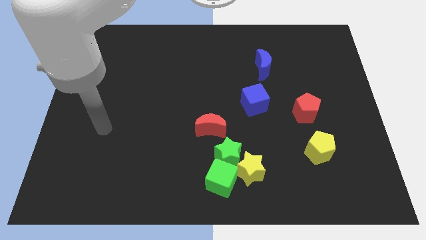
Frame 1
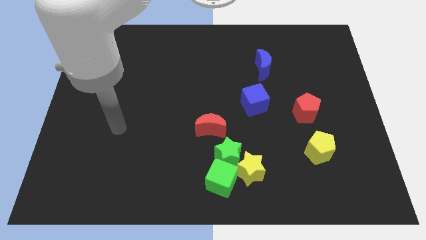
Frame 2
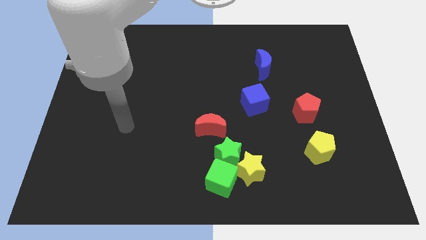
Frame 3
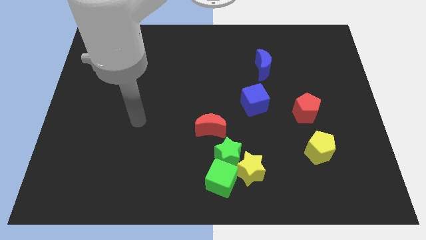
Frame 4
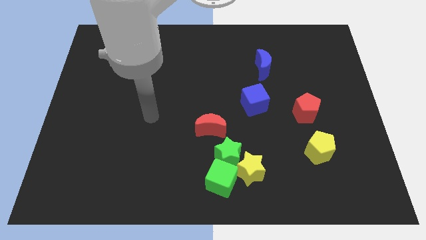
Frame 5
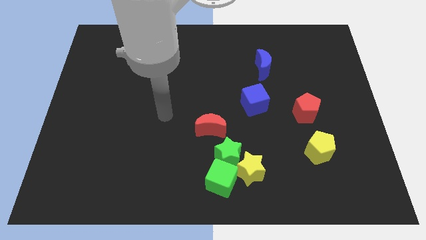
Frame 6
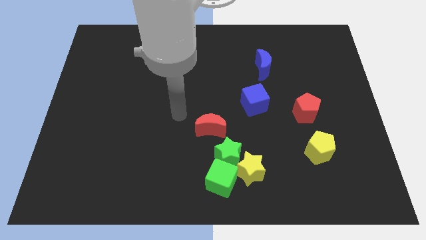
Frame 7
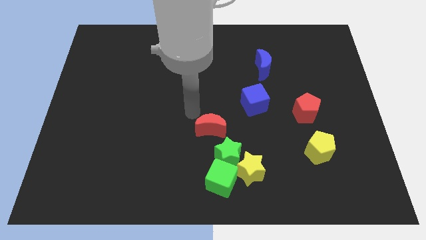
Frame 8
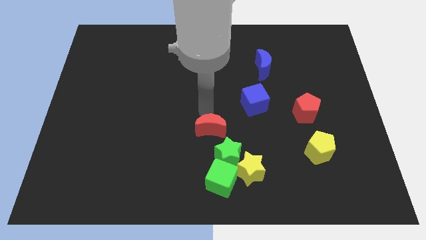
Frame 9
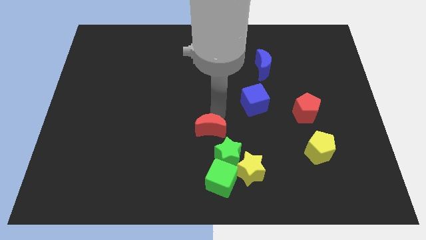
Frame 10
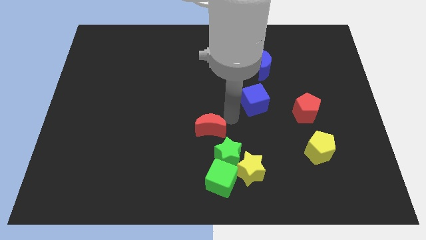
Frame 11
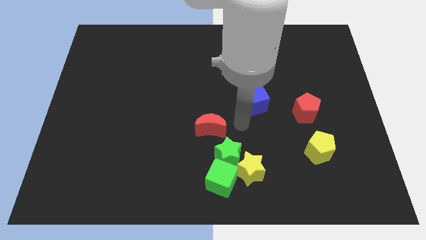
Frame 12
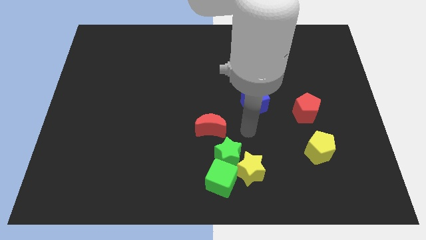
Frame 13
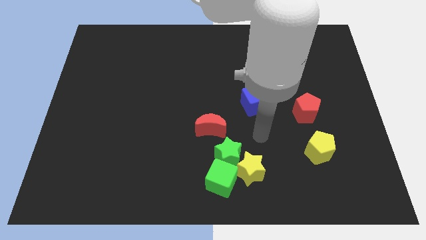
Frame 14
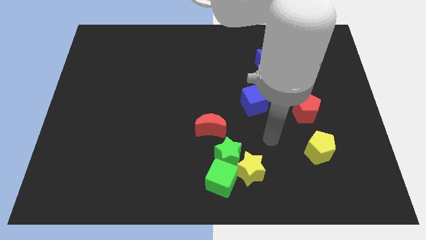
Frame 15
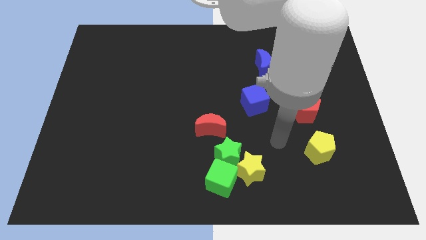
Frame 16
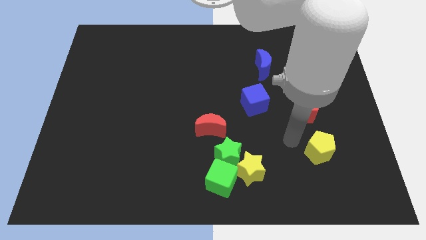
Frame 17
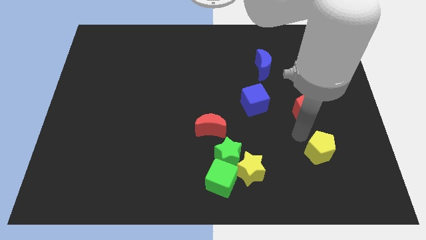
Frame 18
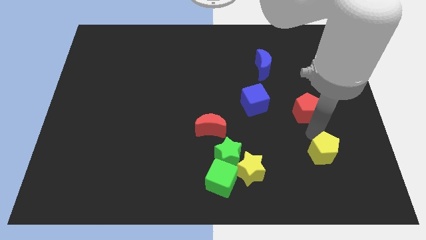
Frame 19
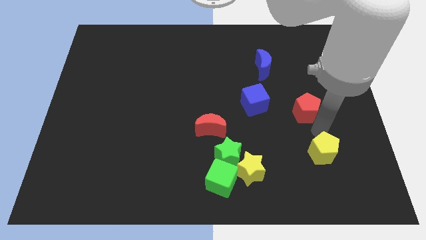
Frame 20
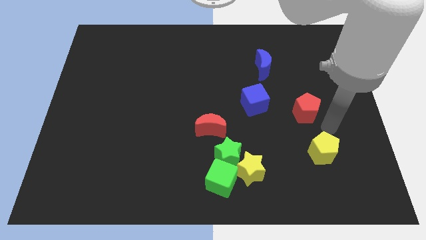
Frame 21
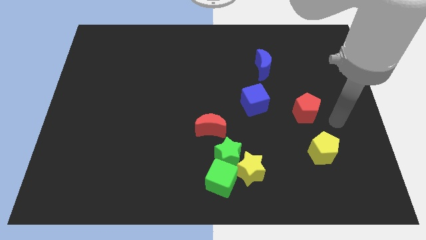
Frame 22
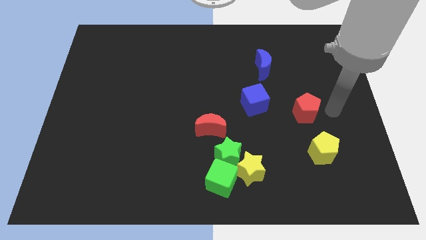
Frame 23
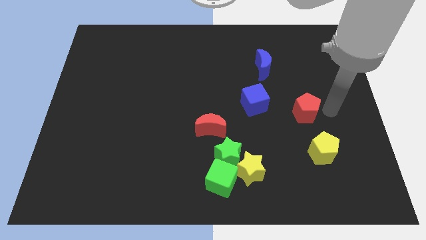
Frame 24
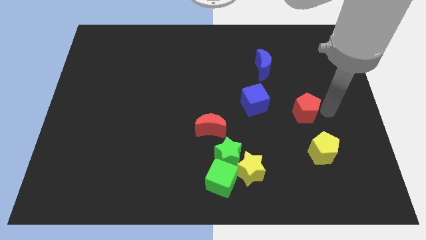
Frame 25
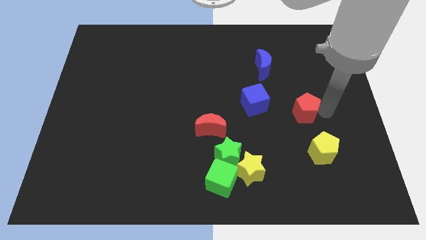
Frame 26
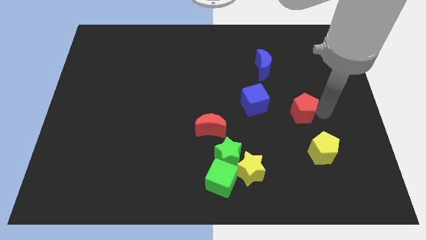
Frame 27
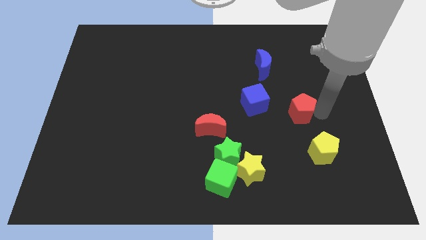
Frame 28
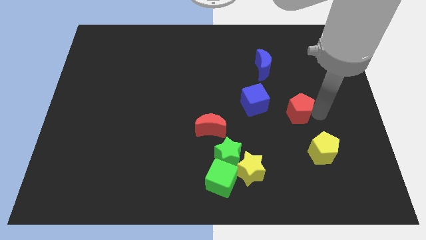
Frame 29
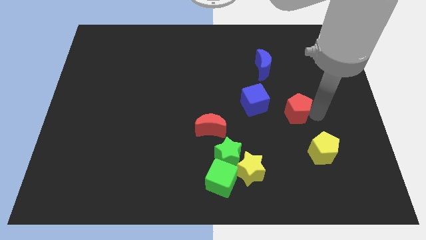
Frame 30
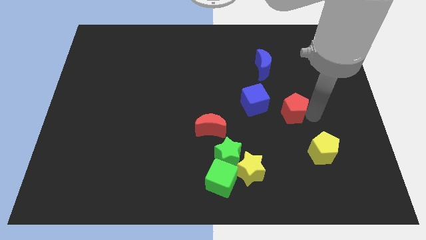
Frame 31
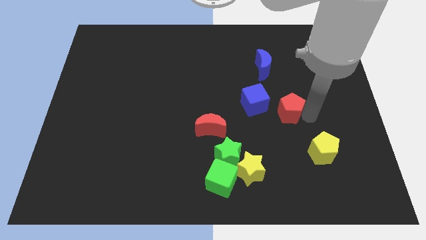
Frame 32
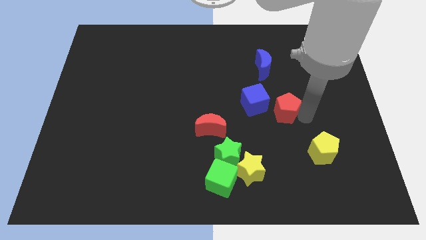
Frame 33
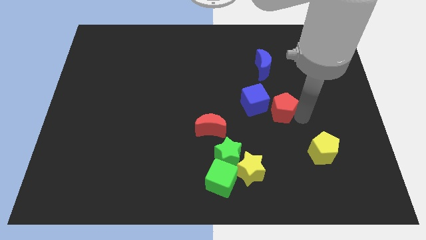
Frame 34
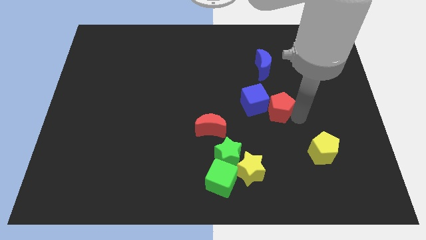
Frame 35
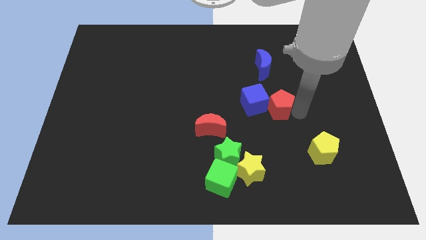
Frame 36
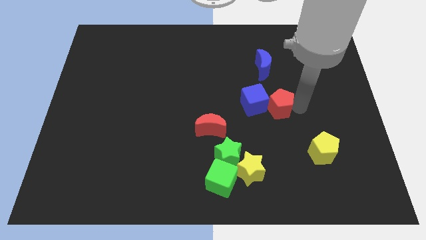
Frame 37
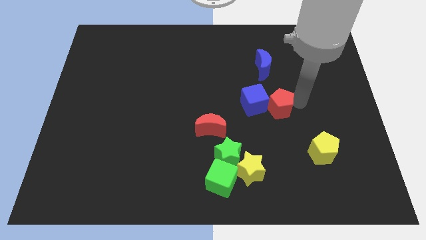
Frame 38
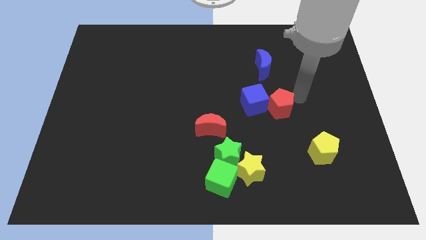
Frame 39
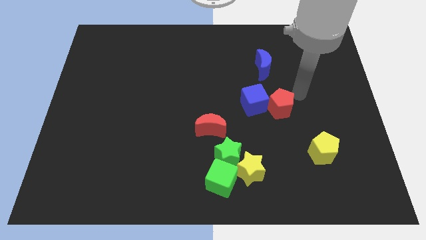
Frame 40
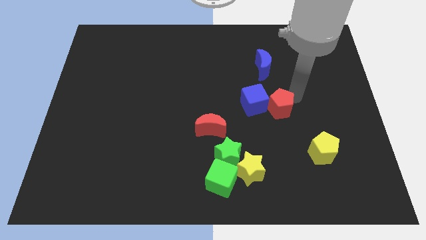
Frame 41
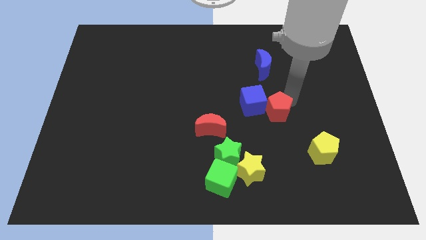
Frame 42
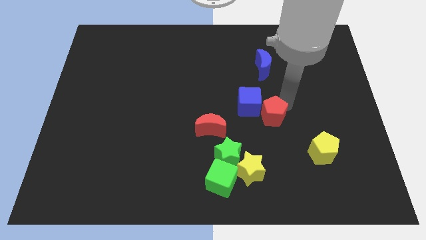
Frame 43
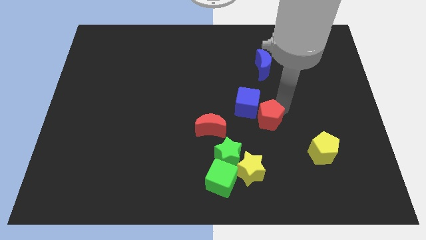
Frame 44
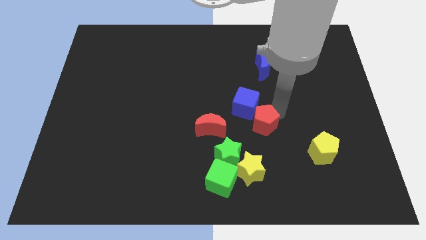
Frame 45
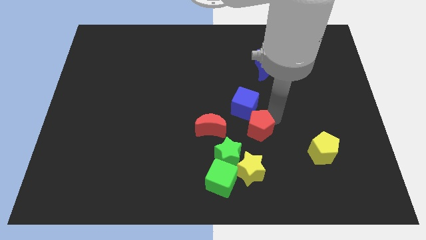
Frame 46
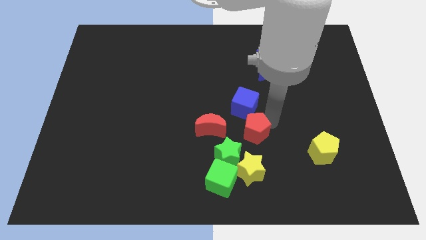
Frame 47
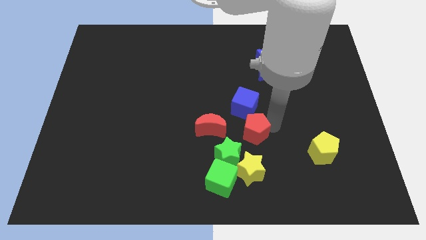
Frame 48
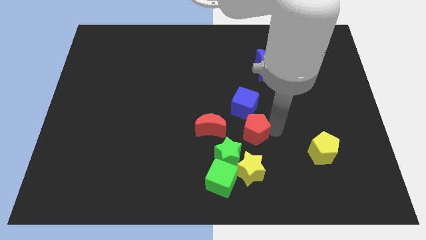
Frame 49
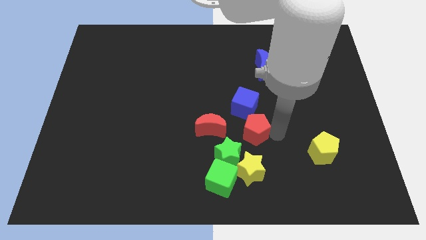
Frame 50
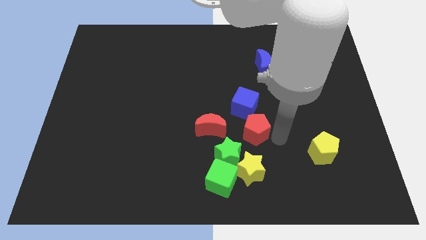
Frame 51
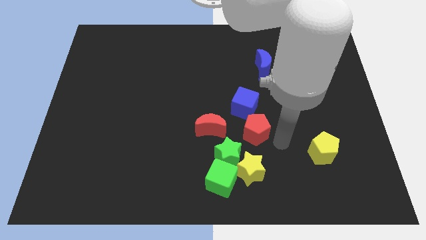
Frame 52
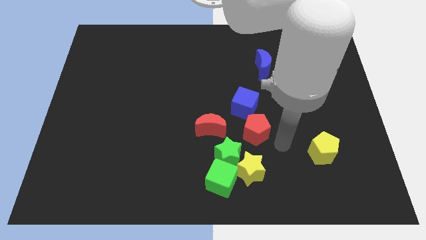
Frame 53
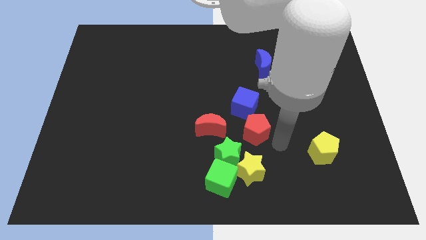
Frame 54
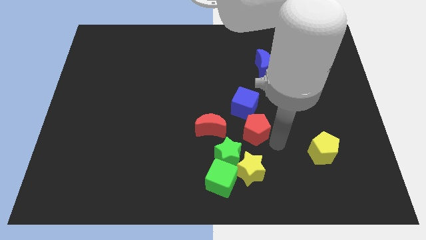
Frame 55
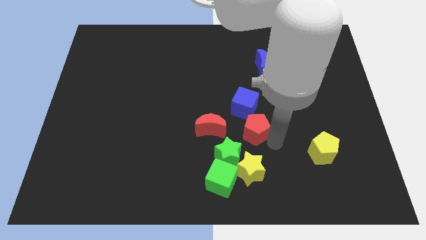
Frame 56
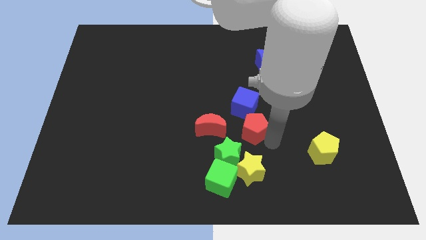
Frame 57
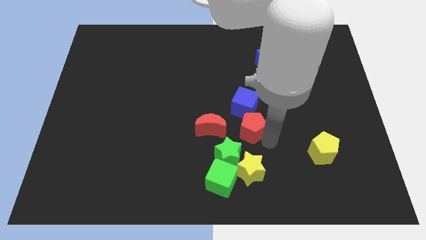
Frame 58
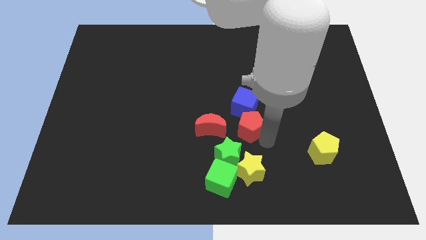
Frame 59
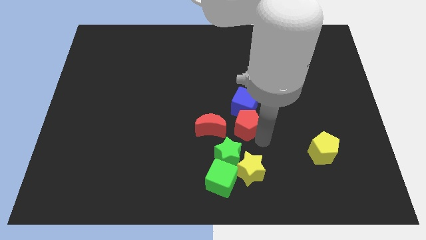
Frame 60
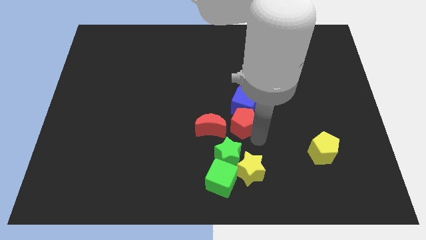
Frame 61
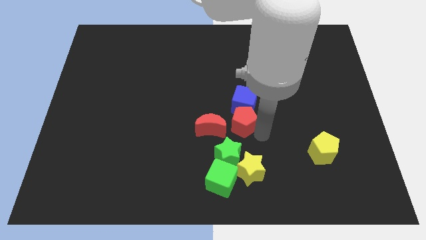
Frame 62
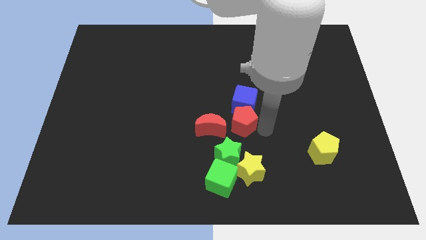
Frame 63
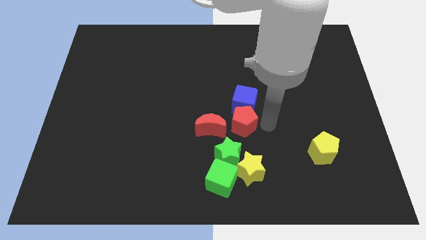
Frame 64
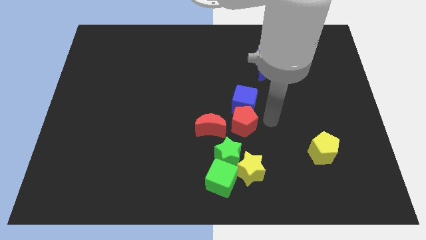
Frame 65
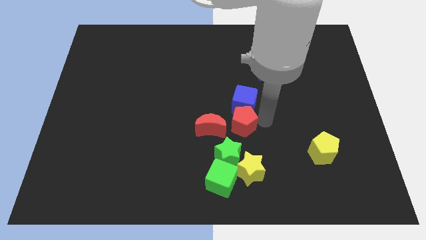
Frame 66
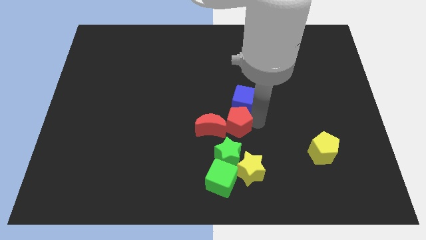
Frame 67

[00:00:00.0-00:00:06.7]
slide the red pentagon close to the red moon

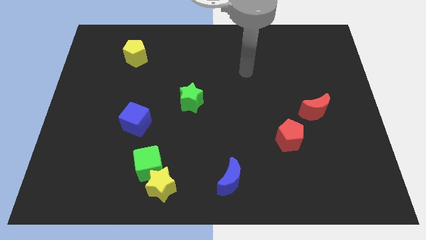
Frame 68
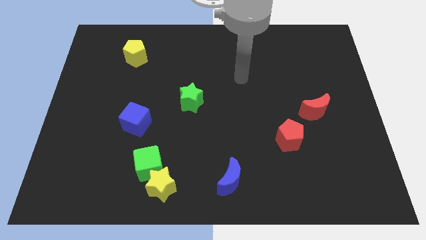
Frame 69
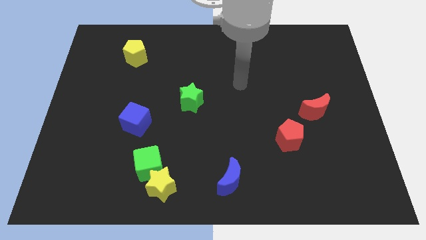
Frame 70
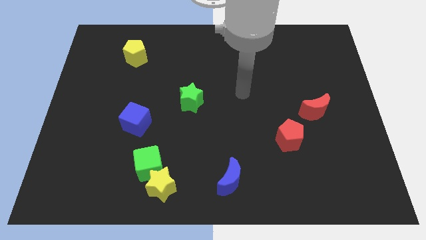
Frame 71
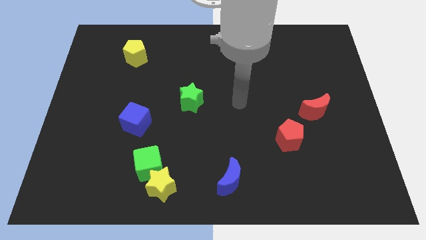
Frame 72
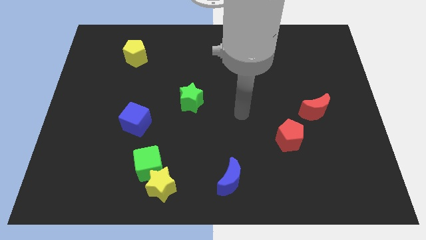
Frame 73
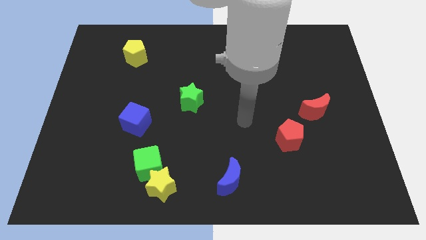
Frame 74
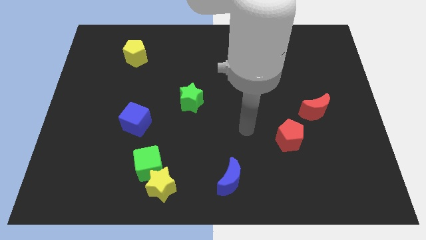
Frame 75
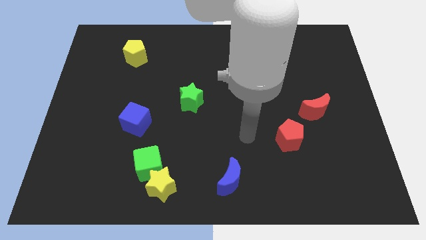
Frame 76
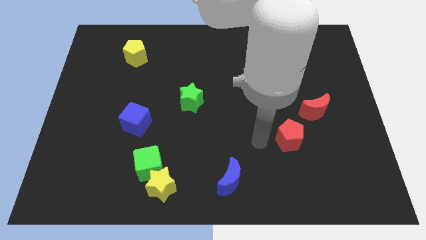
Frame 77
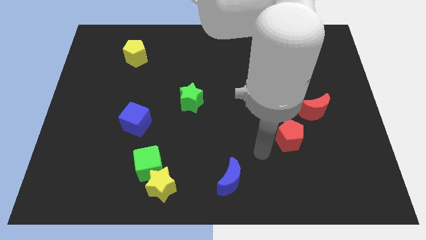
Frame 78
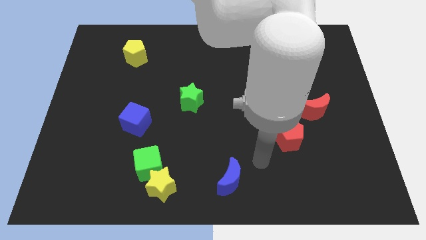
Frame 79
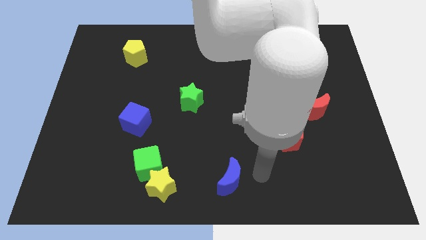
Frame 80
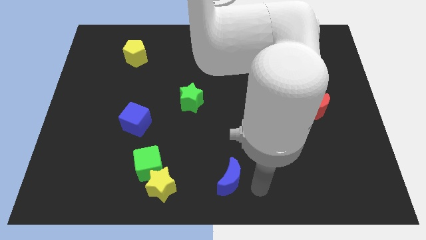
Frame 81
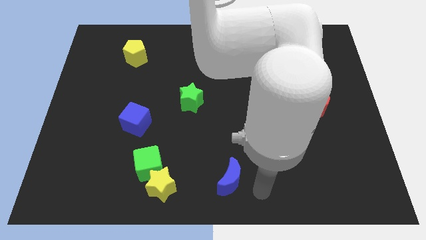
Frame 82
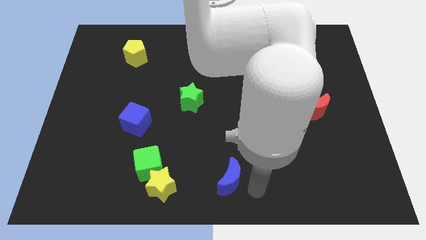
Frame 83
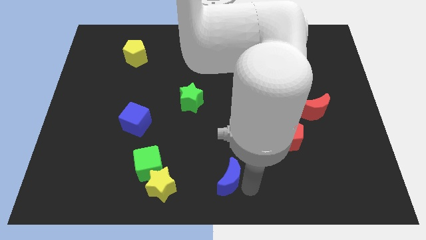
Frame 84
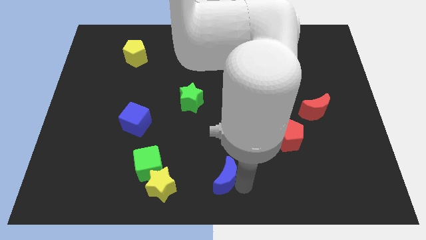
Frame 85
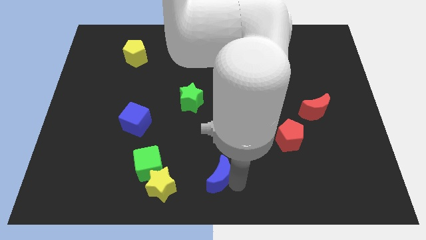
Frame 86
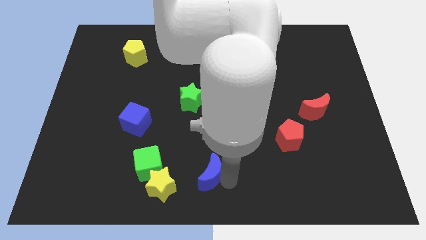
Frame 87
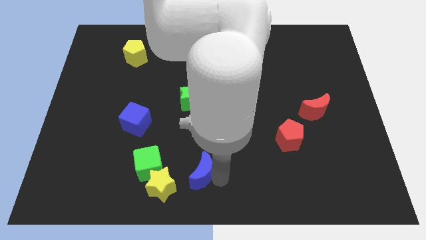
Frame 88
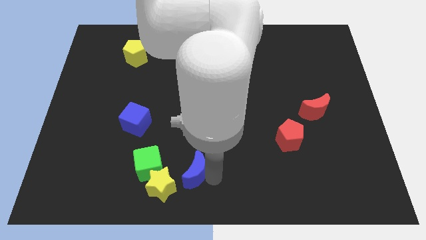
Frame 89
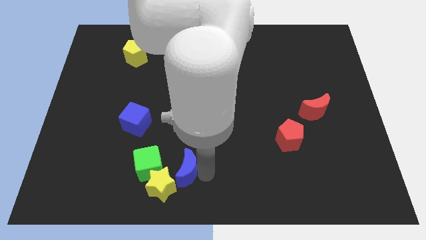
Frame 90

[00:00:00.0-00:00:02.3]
put the blue moon next to the yellow star
